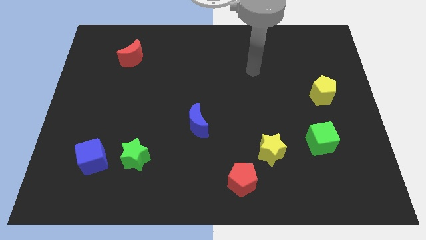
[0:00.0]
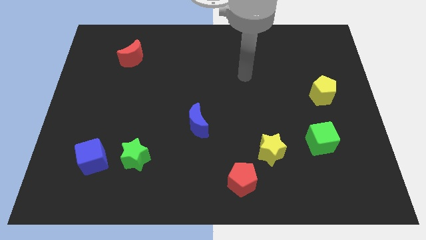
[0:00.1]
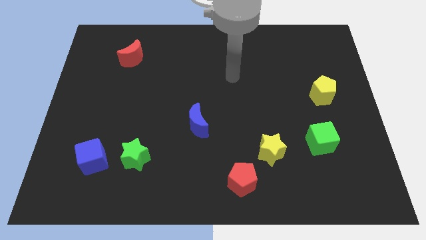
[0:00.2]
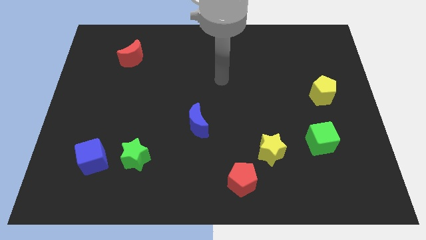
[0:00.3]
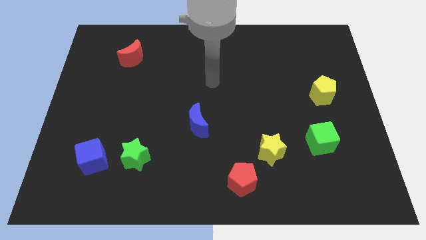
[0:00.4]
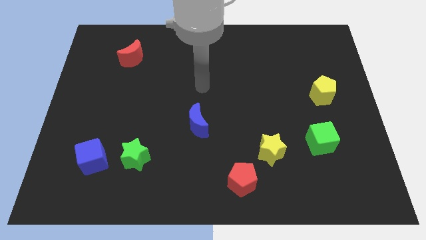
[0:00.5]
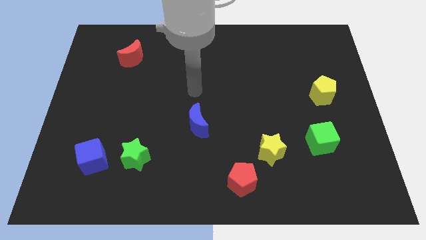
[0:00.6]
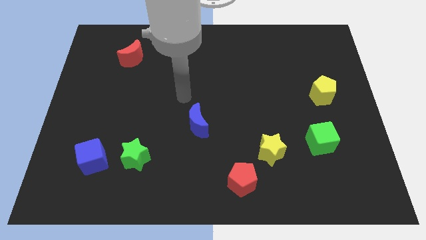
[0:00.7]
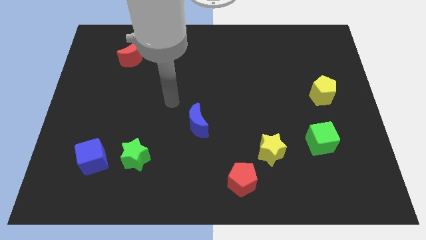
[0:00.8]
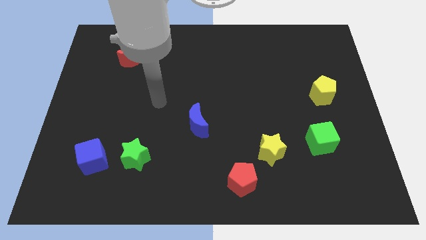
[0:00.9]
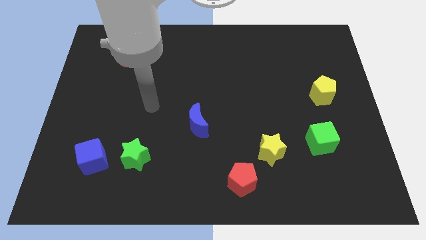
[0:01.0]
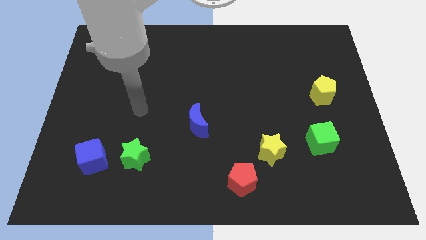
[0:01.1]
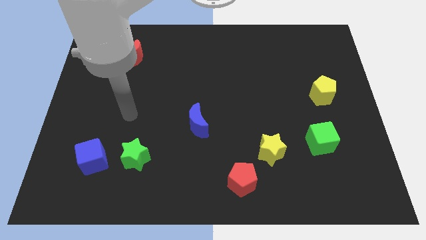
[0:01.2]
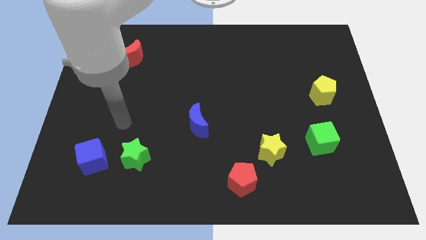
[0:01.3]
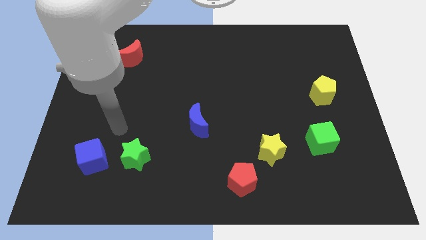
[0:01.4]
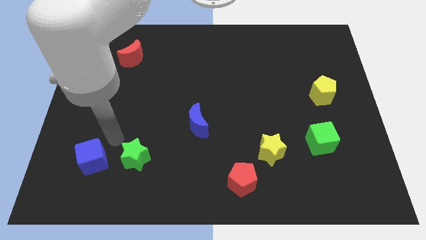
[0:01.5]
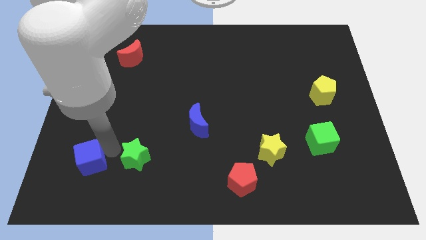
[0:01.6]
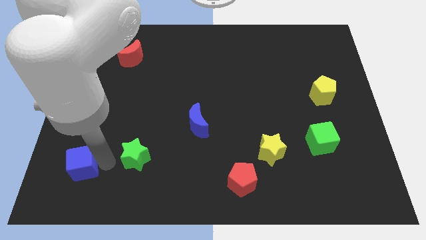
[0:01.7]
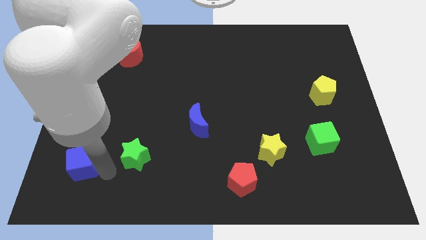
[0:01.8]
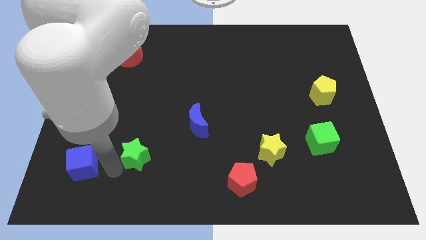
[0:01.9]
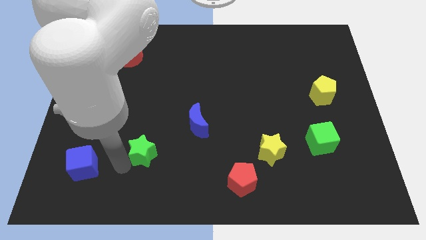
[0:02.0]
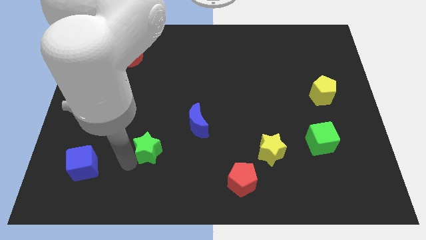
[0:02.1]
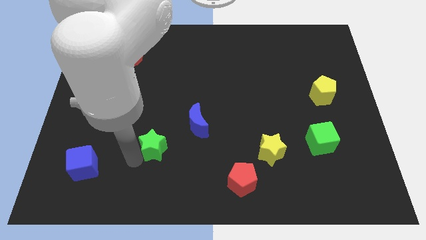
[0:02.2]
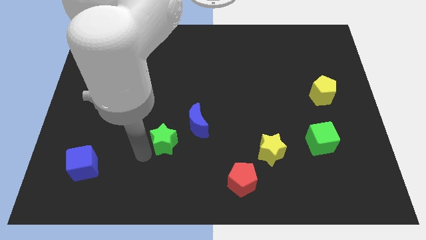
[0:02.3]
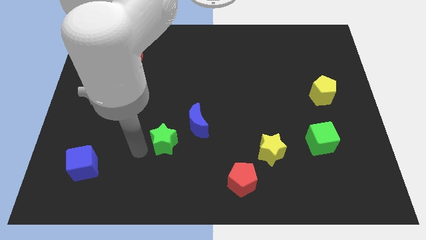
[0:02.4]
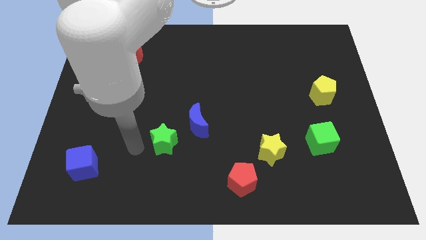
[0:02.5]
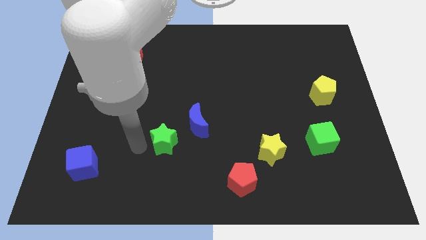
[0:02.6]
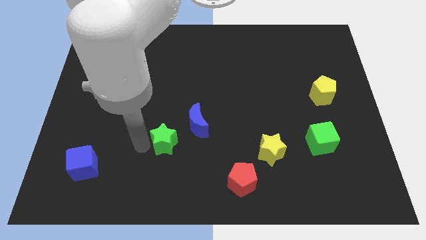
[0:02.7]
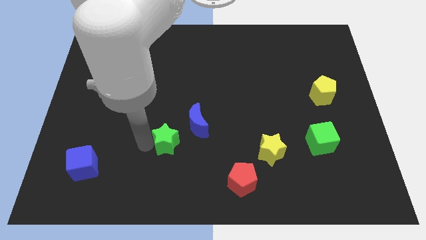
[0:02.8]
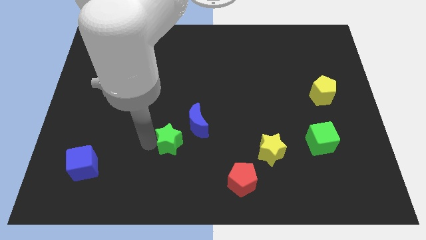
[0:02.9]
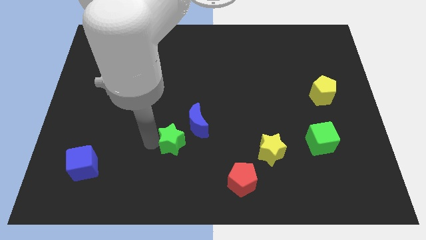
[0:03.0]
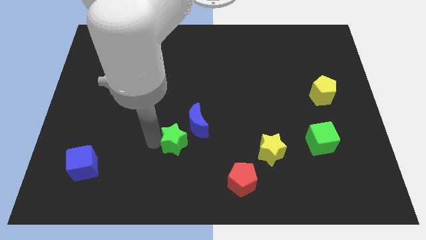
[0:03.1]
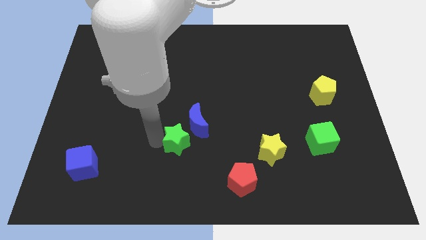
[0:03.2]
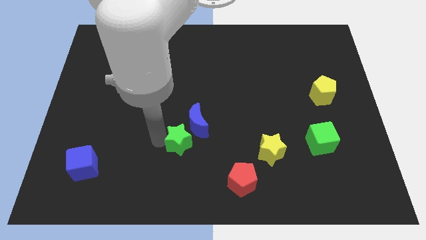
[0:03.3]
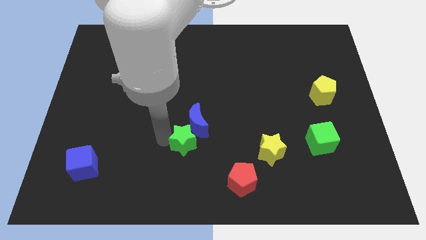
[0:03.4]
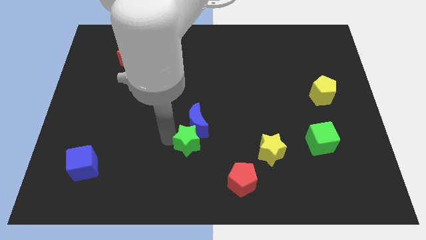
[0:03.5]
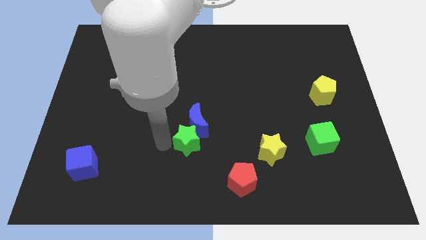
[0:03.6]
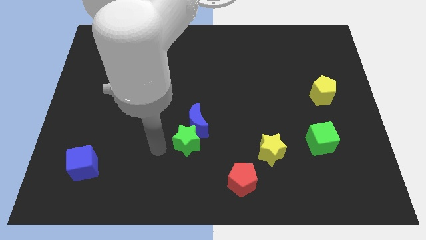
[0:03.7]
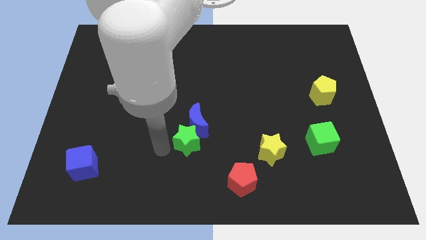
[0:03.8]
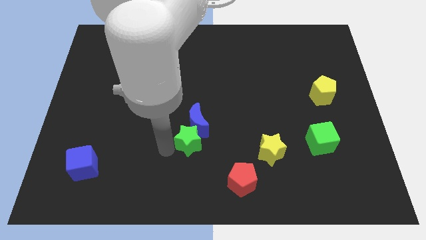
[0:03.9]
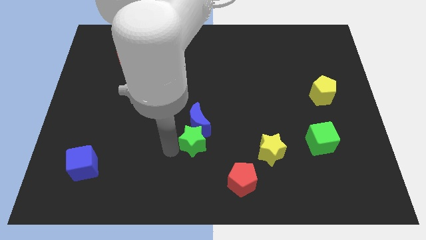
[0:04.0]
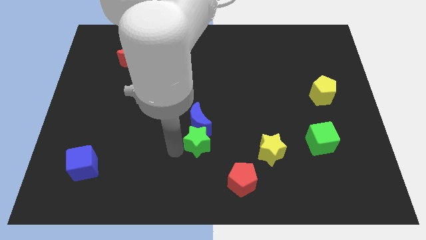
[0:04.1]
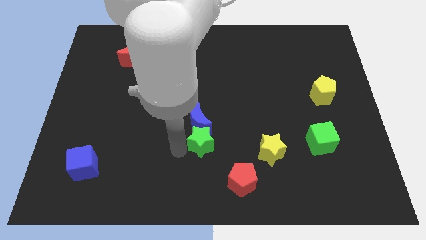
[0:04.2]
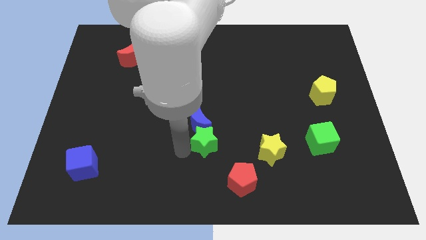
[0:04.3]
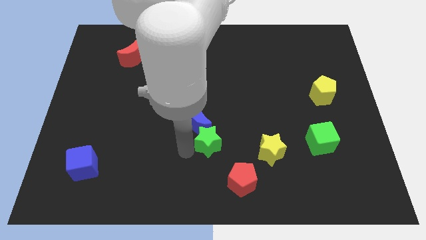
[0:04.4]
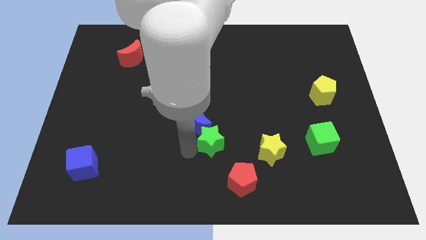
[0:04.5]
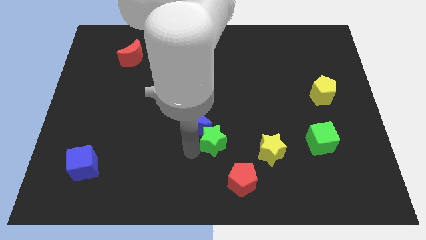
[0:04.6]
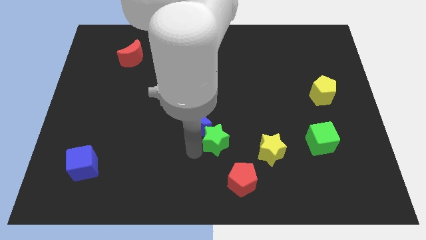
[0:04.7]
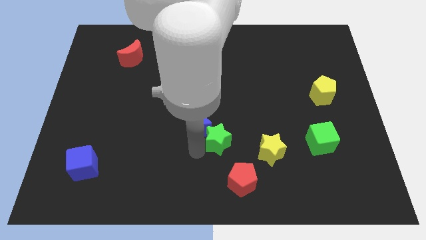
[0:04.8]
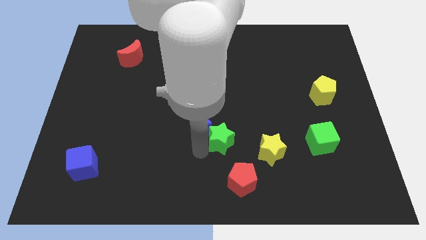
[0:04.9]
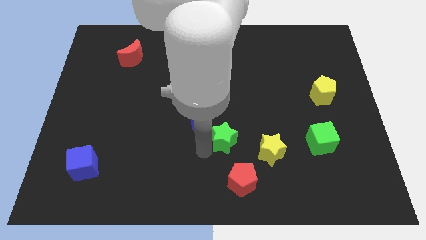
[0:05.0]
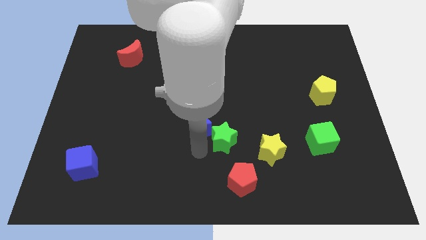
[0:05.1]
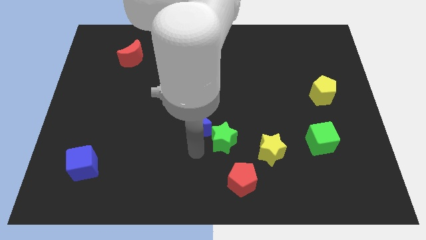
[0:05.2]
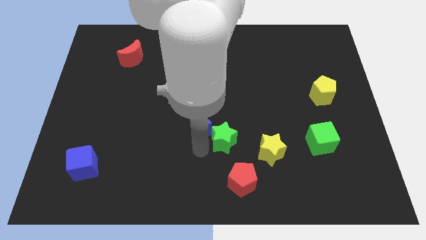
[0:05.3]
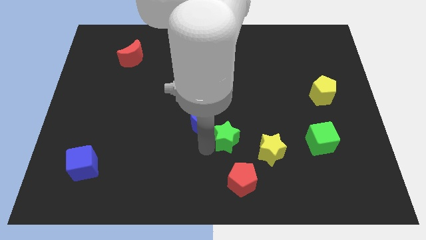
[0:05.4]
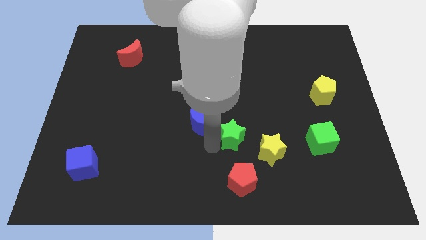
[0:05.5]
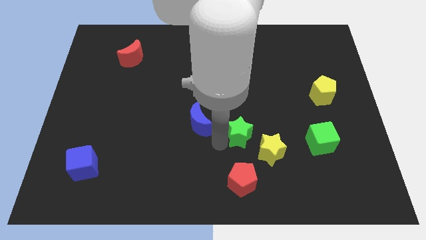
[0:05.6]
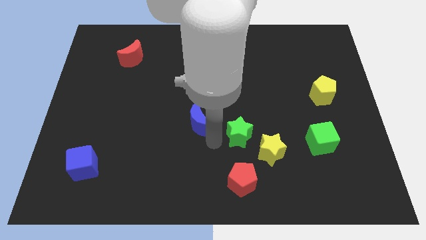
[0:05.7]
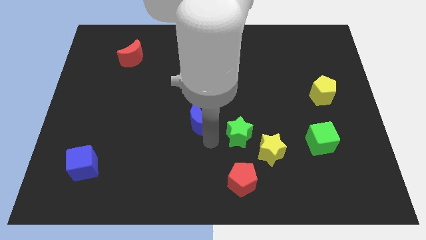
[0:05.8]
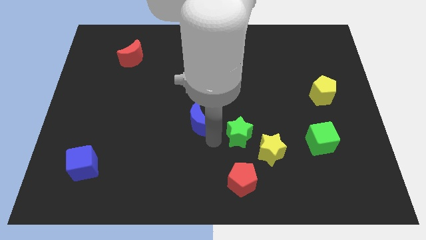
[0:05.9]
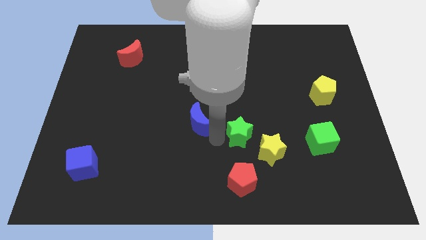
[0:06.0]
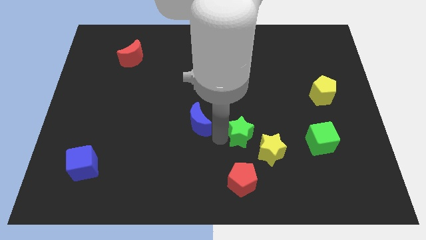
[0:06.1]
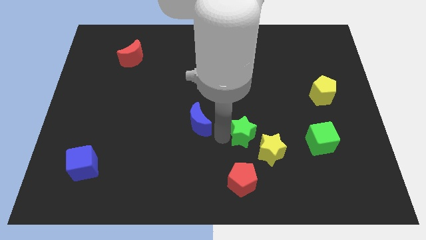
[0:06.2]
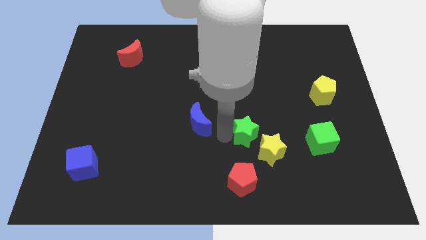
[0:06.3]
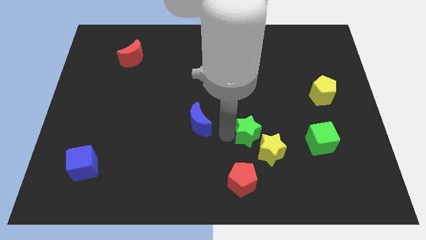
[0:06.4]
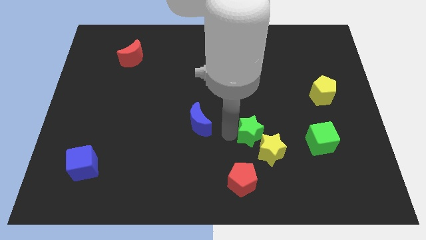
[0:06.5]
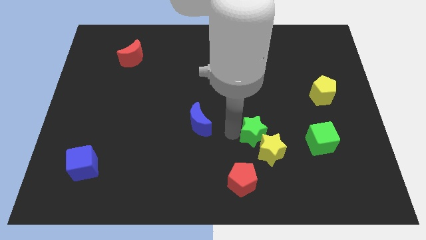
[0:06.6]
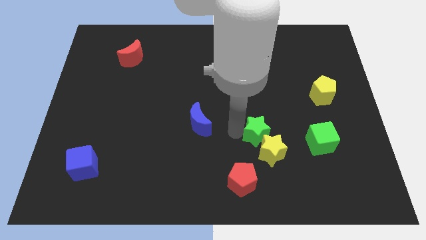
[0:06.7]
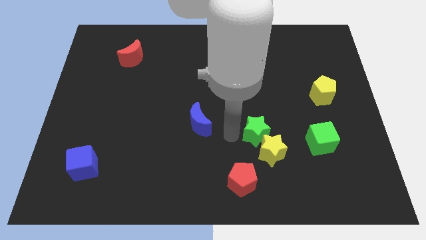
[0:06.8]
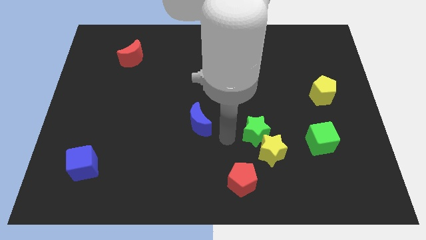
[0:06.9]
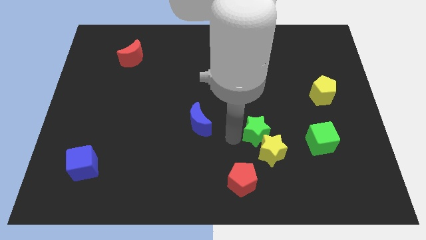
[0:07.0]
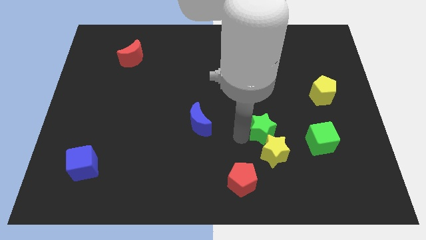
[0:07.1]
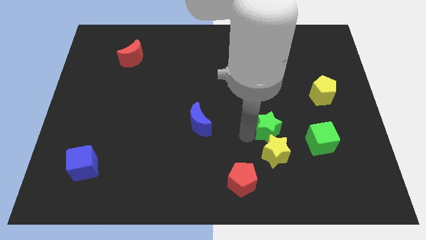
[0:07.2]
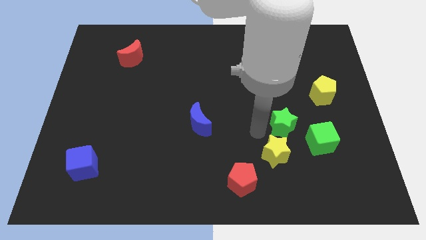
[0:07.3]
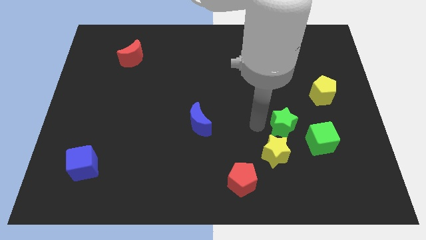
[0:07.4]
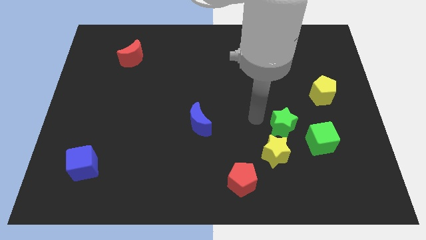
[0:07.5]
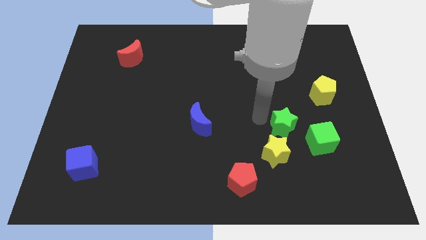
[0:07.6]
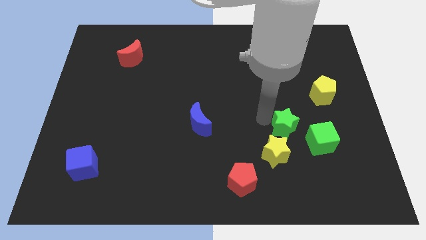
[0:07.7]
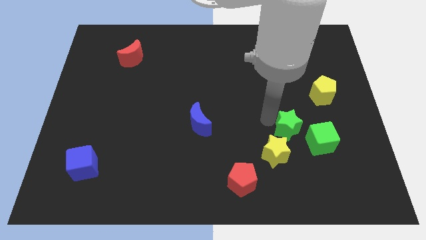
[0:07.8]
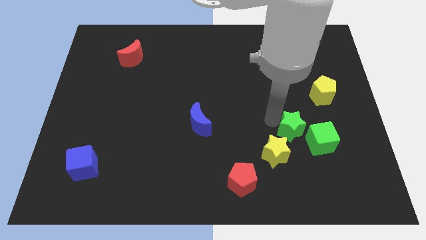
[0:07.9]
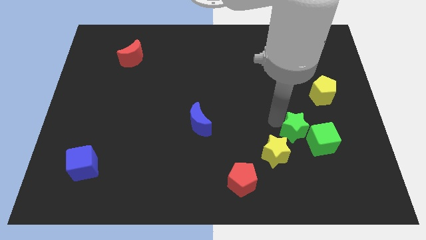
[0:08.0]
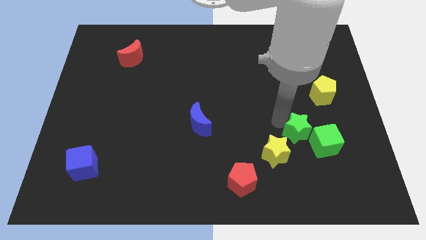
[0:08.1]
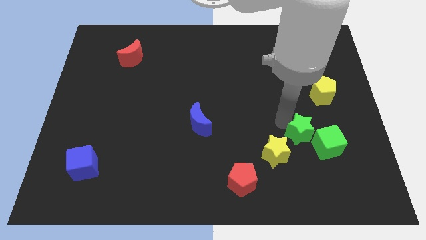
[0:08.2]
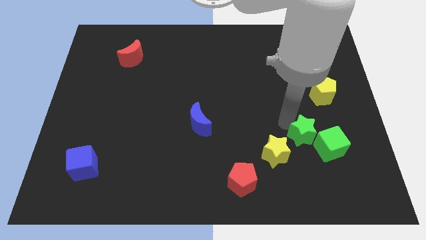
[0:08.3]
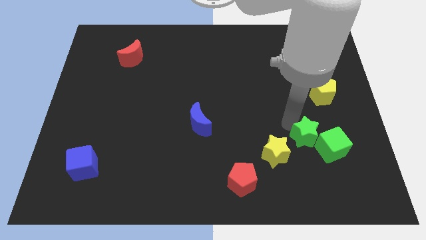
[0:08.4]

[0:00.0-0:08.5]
move the green star to the green cube
